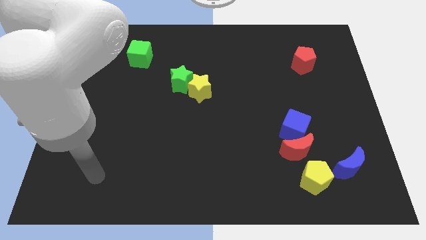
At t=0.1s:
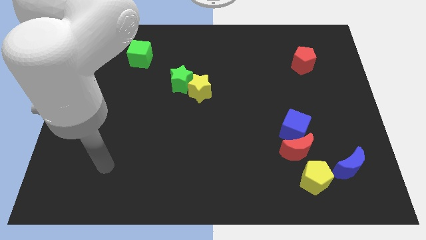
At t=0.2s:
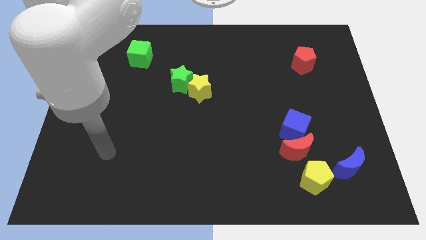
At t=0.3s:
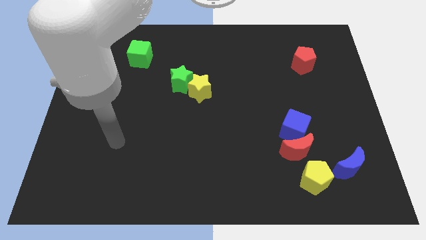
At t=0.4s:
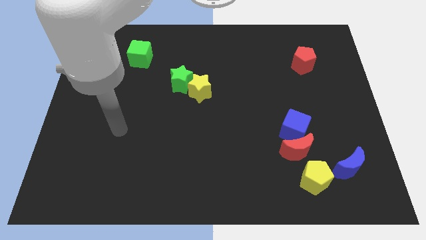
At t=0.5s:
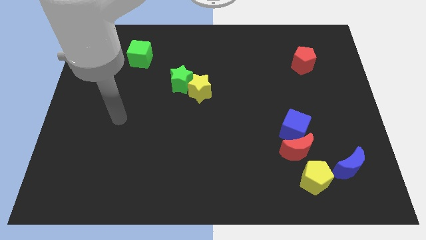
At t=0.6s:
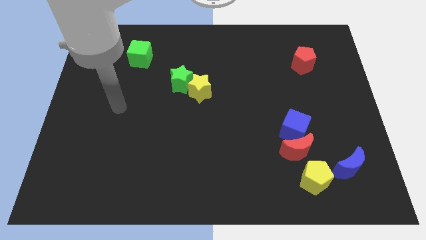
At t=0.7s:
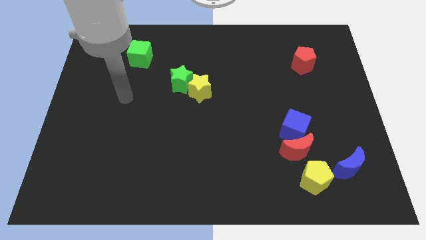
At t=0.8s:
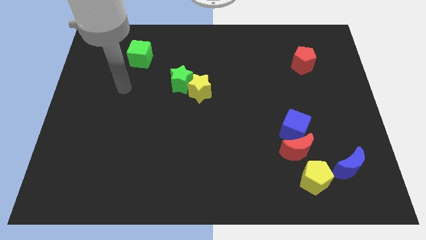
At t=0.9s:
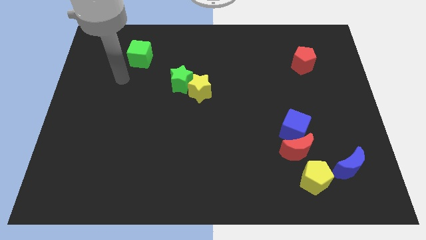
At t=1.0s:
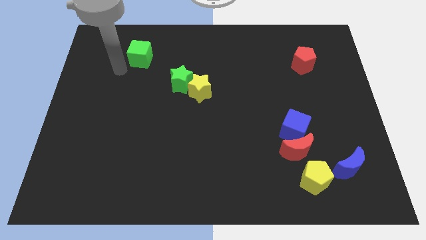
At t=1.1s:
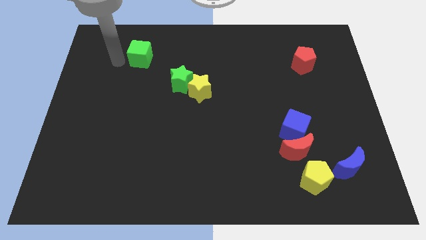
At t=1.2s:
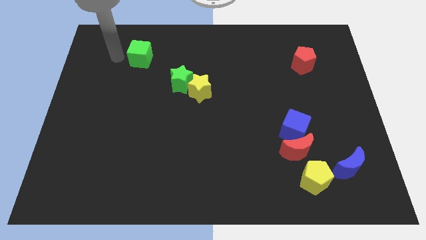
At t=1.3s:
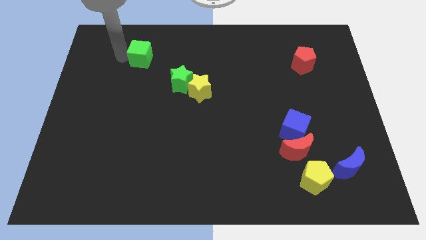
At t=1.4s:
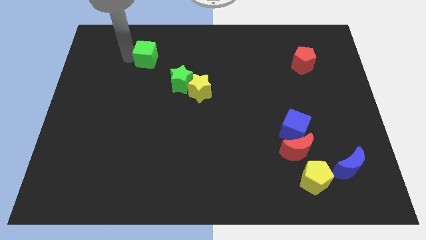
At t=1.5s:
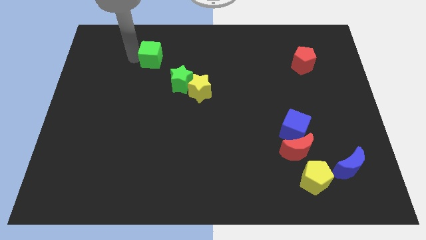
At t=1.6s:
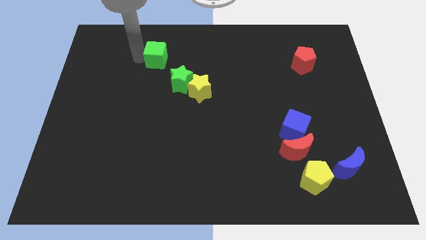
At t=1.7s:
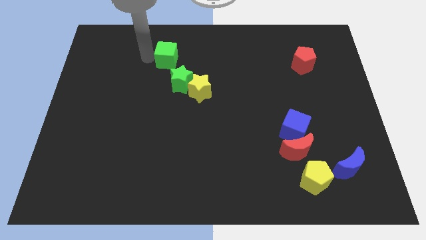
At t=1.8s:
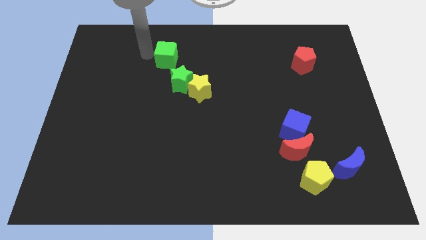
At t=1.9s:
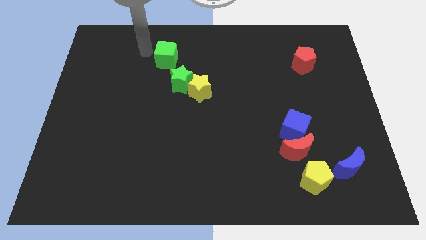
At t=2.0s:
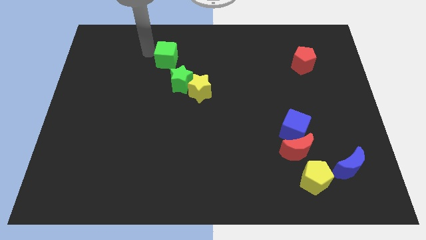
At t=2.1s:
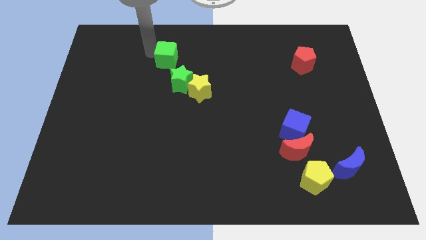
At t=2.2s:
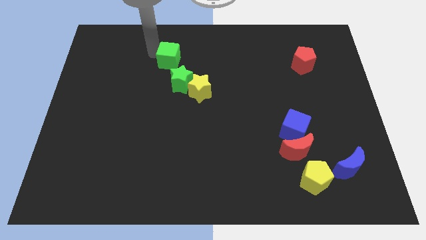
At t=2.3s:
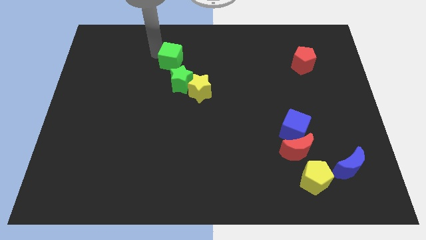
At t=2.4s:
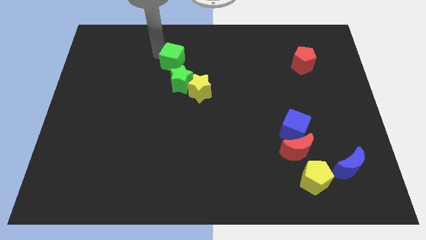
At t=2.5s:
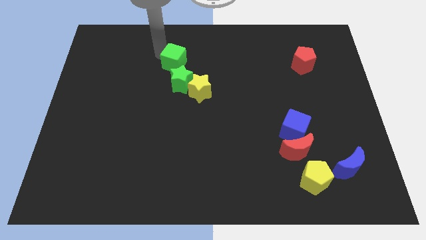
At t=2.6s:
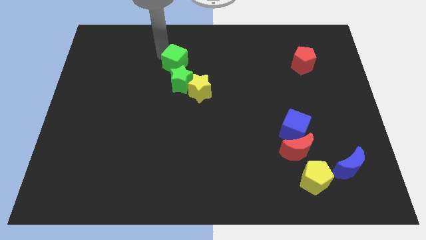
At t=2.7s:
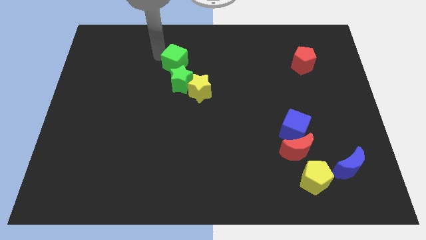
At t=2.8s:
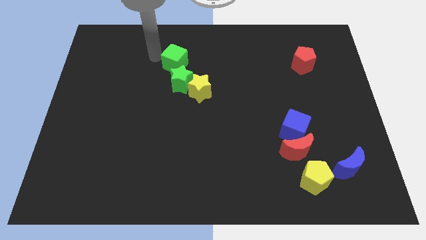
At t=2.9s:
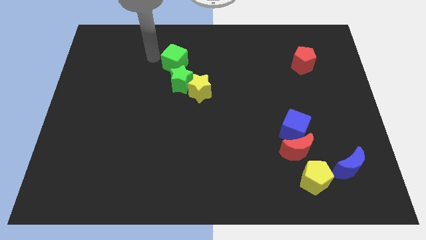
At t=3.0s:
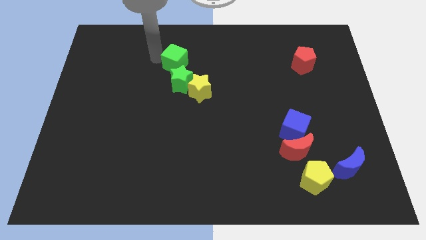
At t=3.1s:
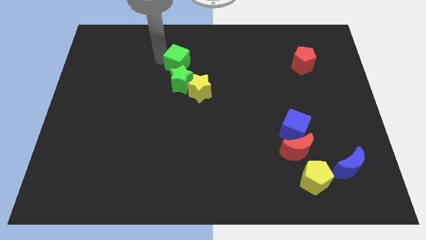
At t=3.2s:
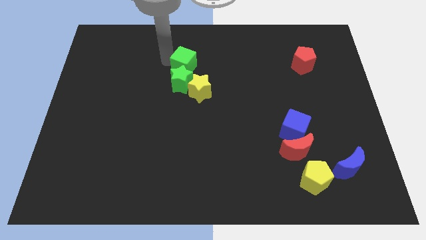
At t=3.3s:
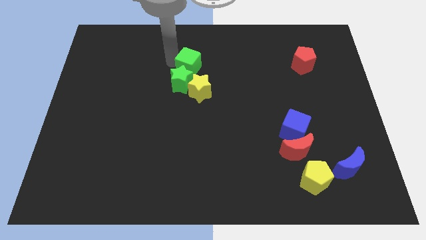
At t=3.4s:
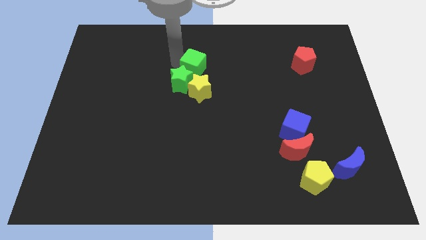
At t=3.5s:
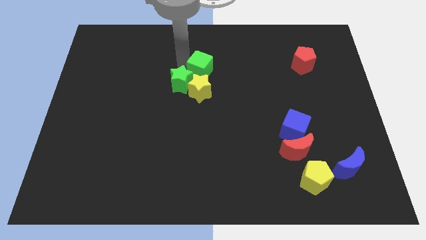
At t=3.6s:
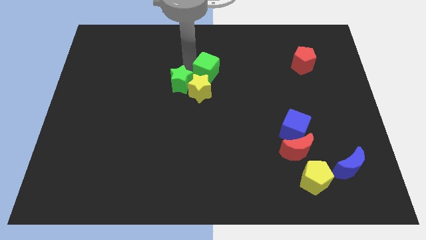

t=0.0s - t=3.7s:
put the green cube diagonally up and to the right of the yellow star

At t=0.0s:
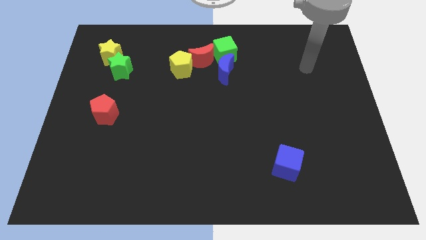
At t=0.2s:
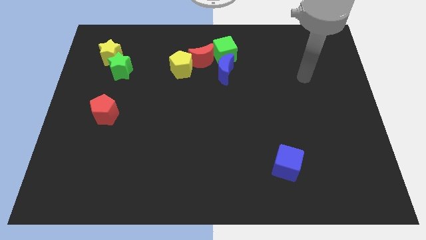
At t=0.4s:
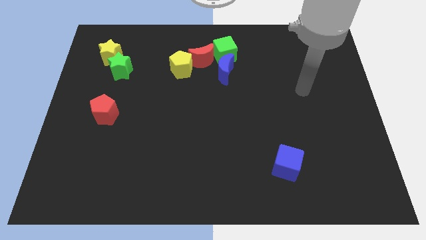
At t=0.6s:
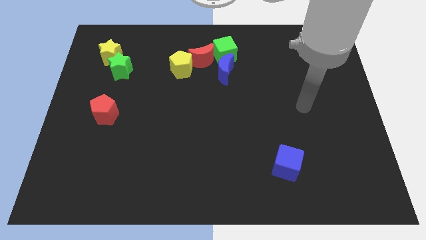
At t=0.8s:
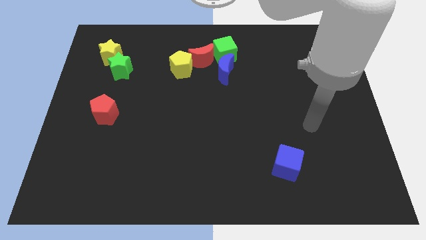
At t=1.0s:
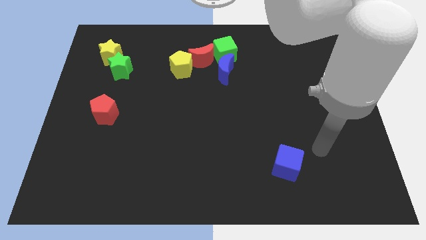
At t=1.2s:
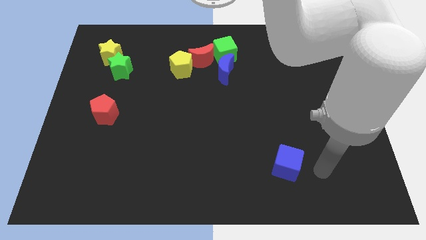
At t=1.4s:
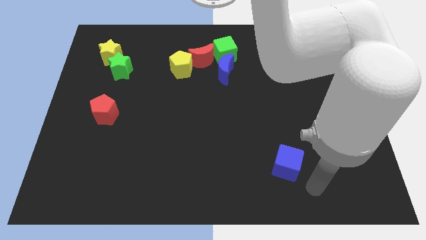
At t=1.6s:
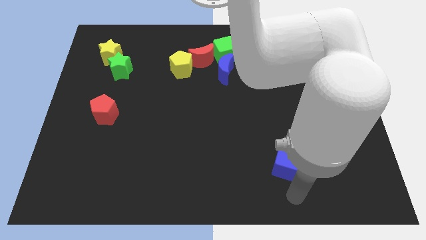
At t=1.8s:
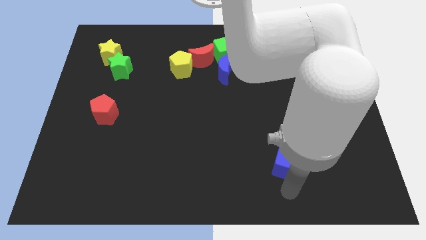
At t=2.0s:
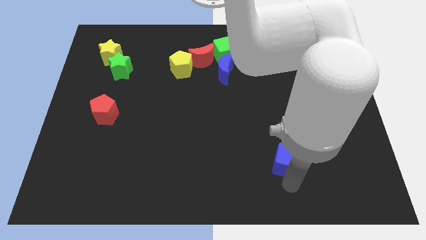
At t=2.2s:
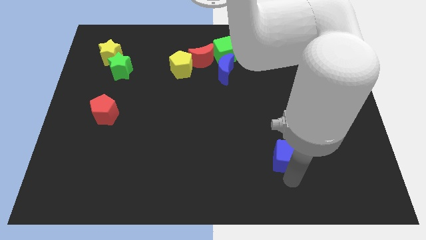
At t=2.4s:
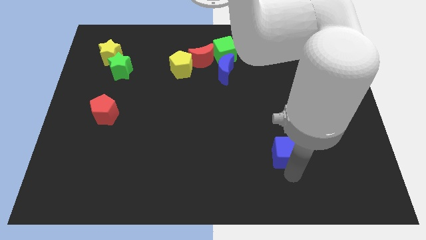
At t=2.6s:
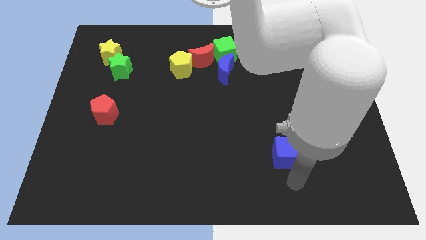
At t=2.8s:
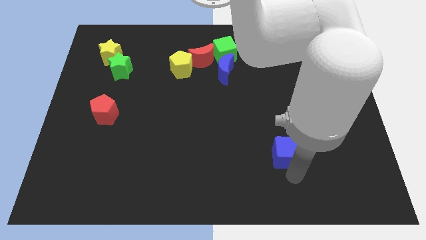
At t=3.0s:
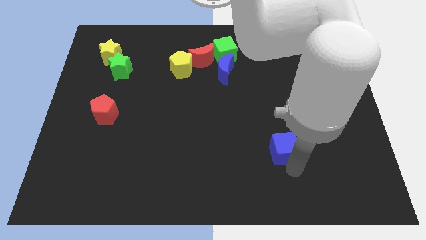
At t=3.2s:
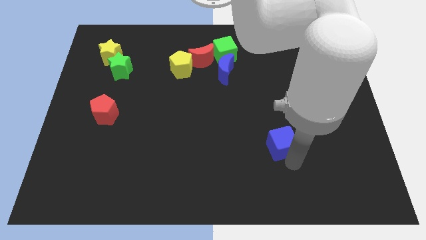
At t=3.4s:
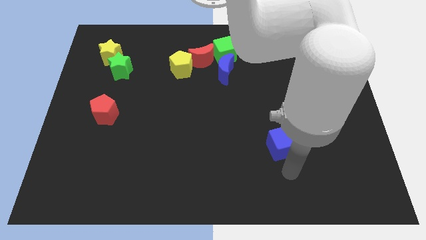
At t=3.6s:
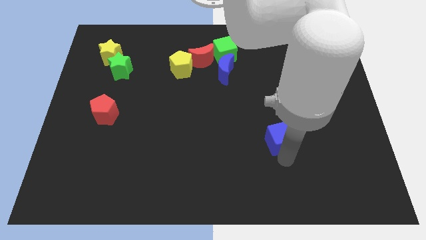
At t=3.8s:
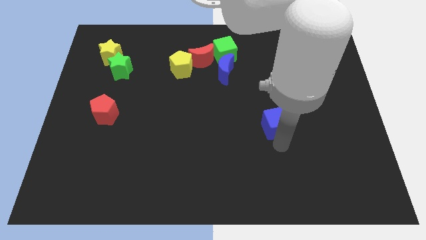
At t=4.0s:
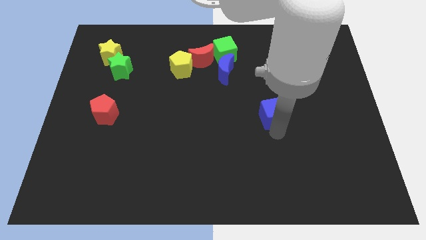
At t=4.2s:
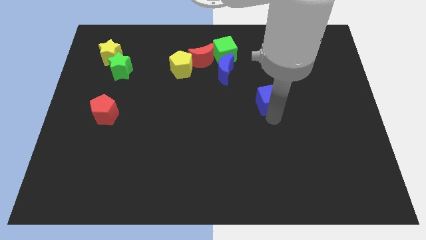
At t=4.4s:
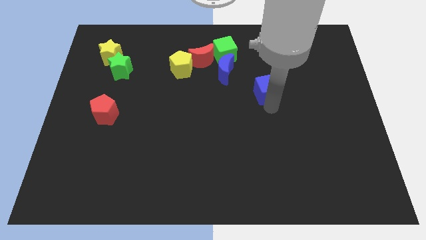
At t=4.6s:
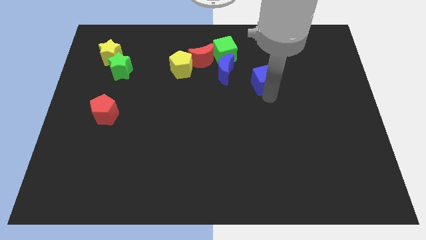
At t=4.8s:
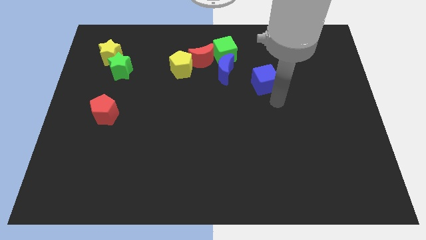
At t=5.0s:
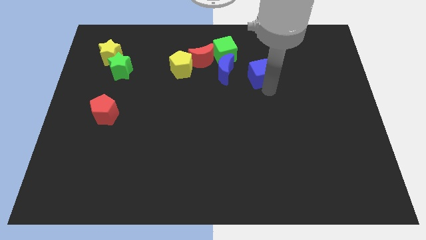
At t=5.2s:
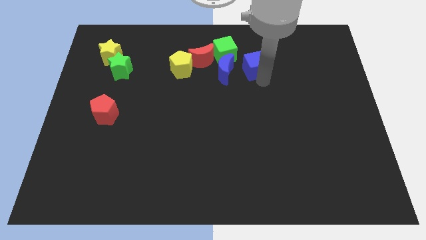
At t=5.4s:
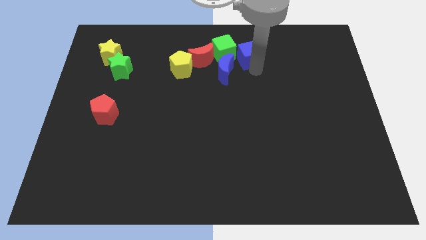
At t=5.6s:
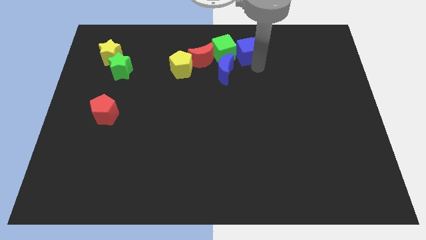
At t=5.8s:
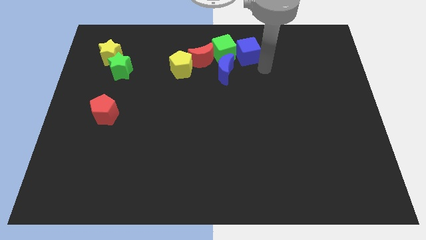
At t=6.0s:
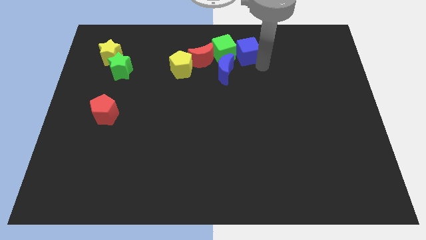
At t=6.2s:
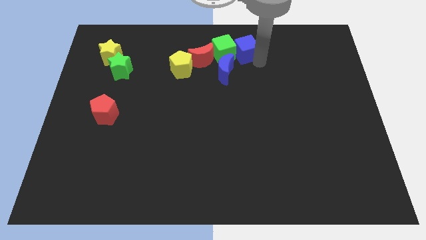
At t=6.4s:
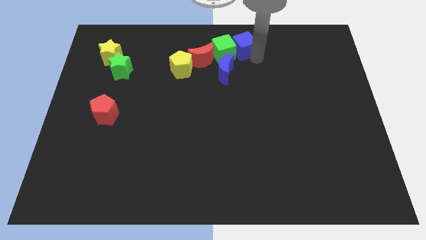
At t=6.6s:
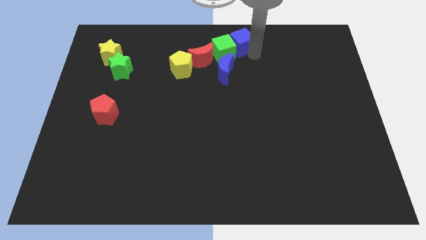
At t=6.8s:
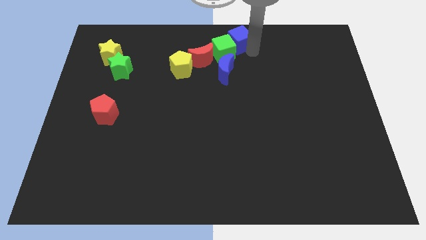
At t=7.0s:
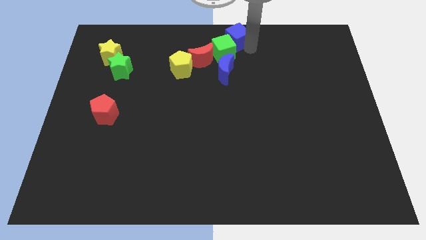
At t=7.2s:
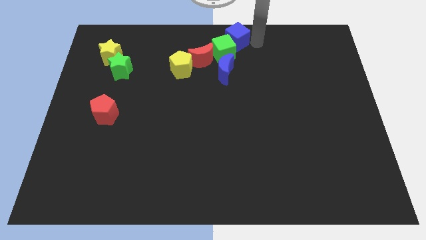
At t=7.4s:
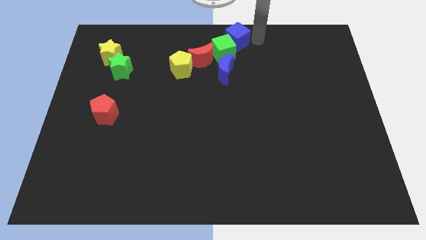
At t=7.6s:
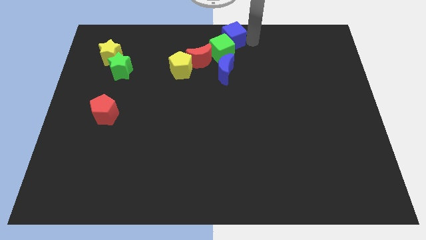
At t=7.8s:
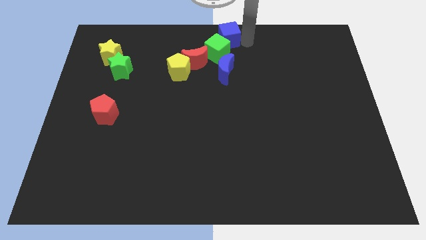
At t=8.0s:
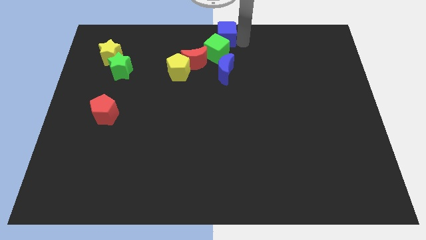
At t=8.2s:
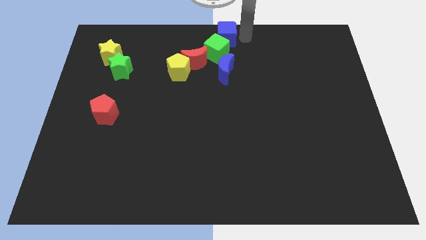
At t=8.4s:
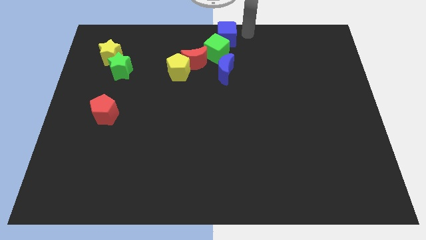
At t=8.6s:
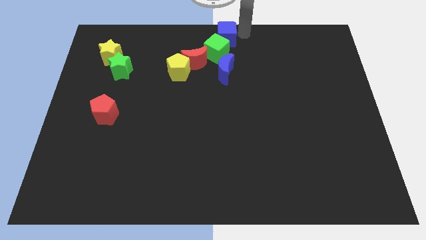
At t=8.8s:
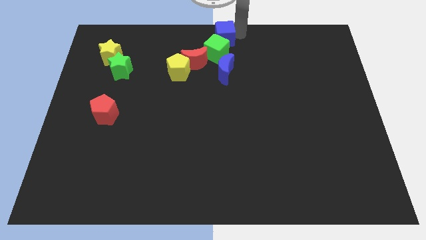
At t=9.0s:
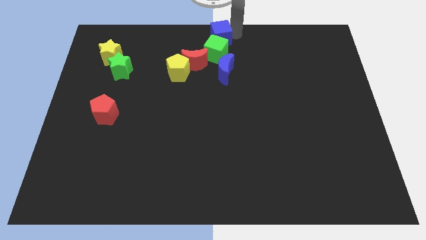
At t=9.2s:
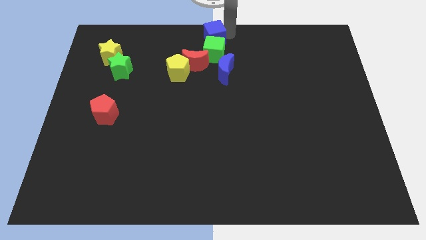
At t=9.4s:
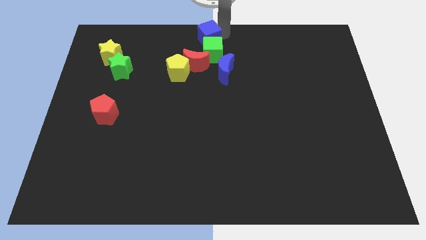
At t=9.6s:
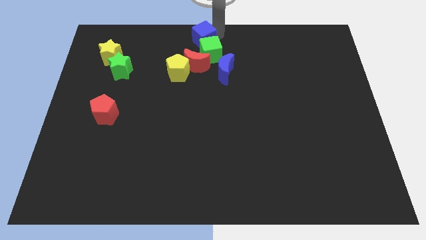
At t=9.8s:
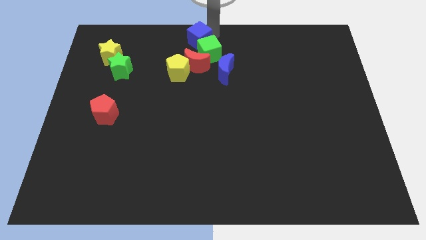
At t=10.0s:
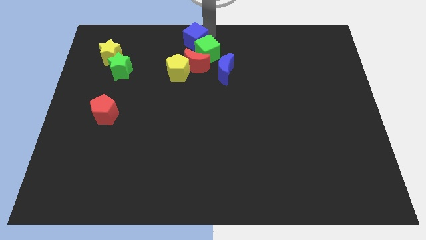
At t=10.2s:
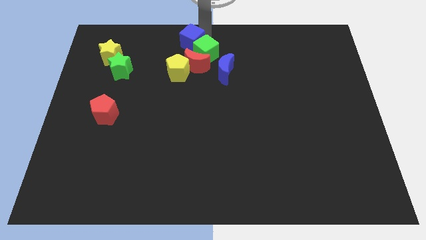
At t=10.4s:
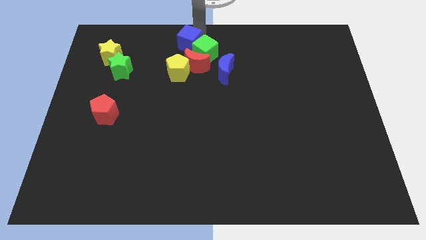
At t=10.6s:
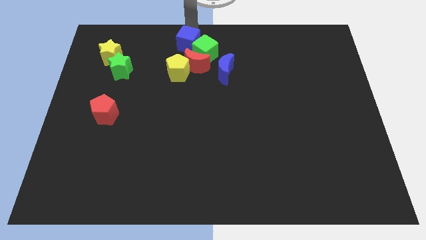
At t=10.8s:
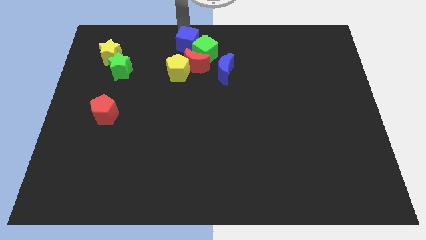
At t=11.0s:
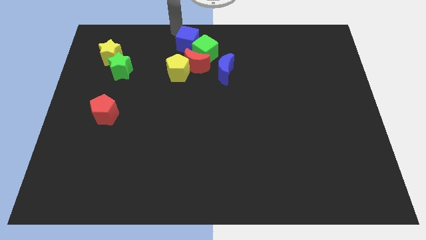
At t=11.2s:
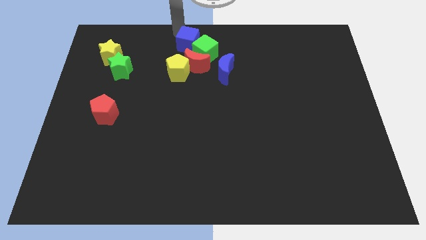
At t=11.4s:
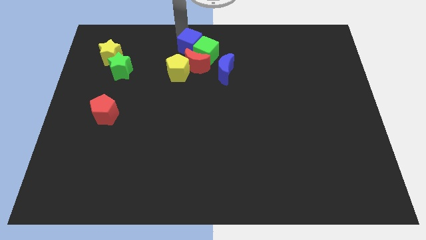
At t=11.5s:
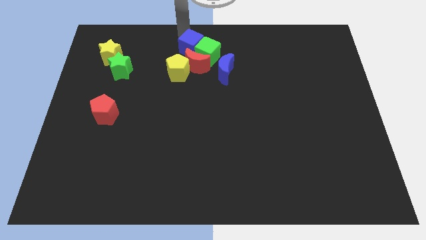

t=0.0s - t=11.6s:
put the blue cube diagonally up and to the left of the blue moon
